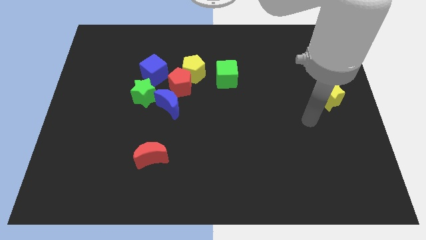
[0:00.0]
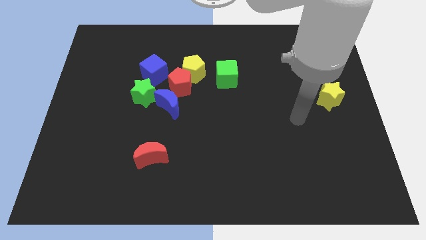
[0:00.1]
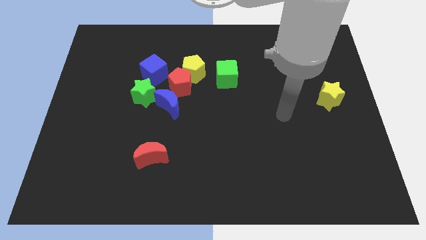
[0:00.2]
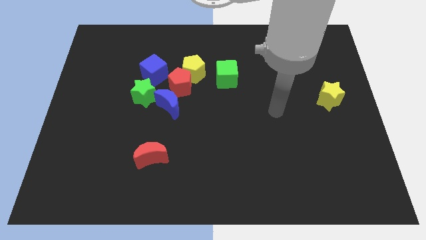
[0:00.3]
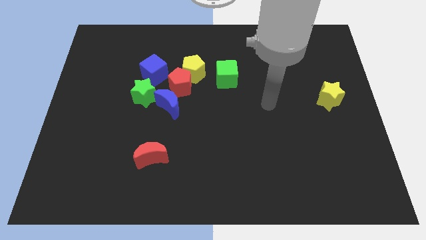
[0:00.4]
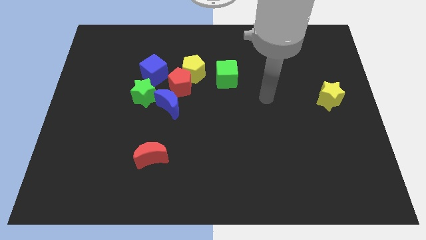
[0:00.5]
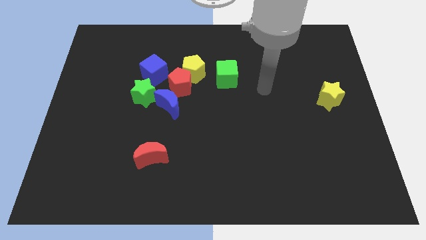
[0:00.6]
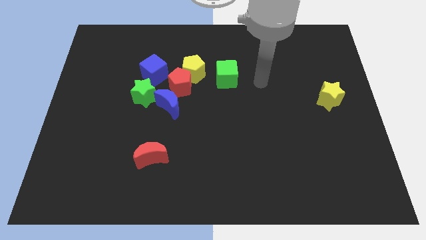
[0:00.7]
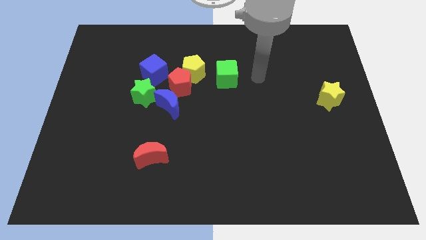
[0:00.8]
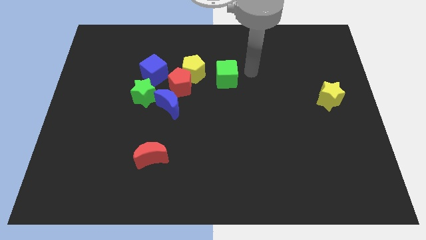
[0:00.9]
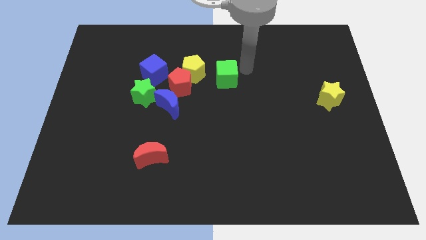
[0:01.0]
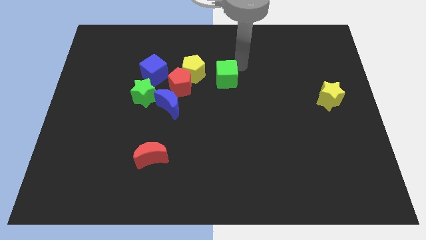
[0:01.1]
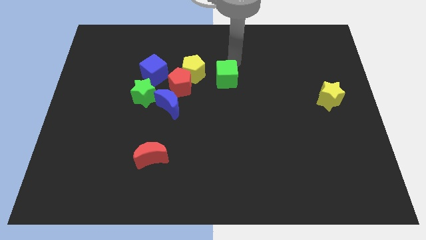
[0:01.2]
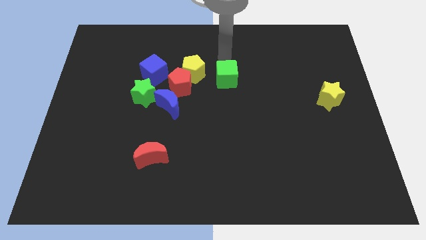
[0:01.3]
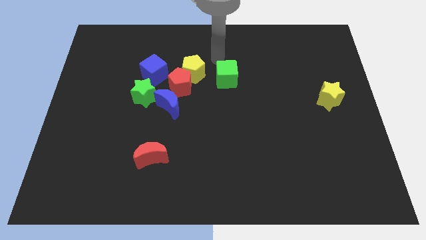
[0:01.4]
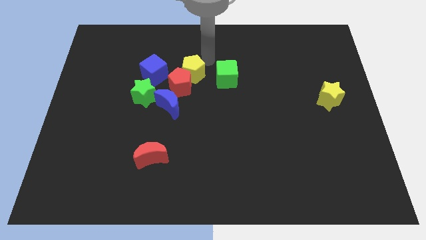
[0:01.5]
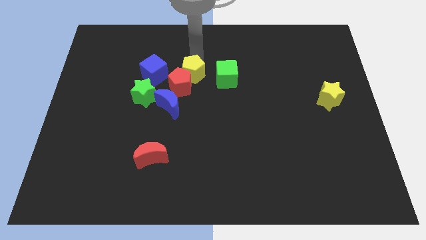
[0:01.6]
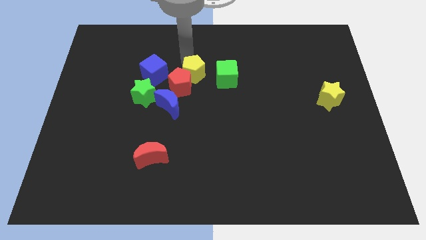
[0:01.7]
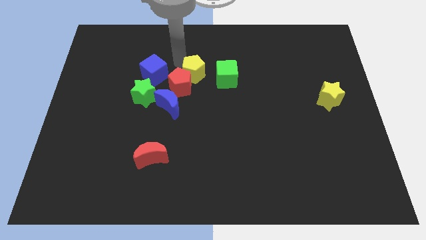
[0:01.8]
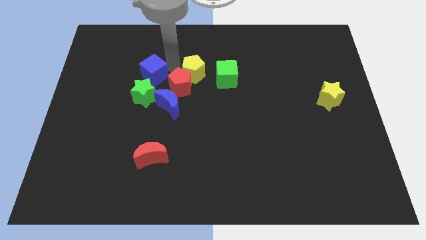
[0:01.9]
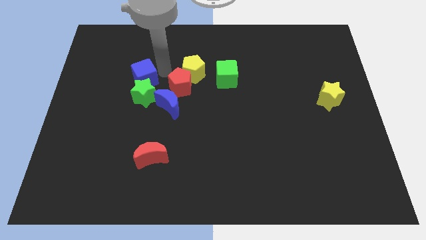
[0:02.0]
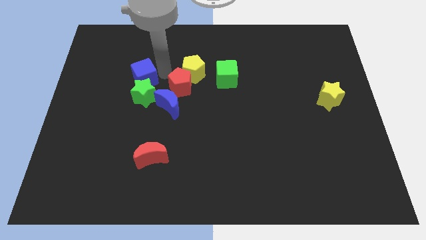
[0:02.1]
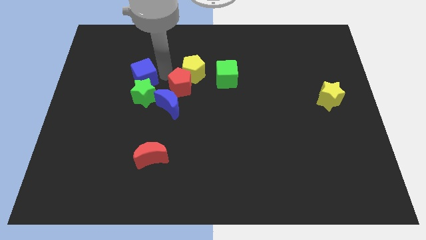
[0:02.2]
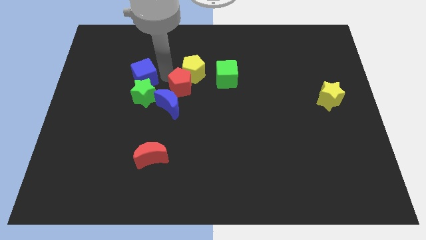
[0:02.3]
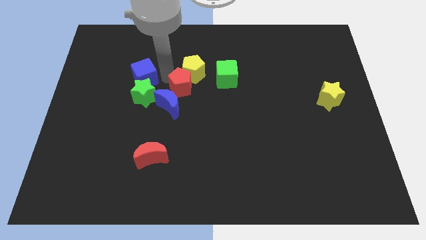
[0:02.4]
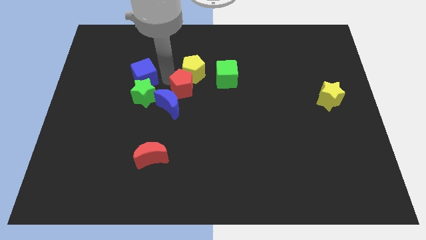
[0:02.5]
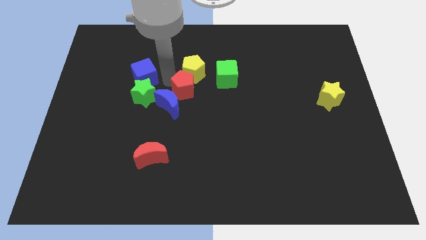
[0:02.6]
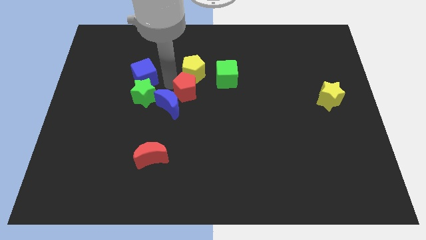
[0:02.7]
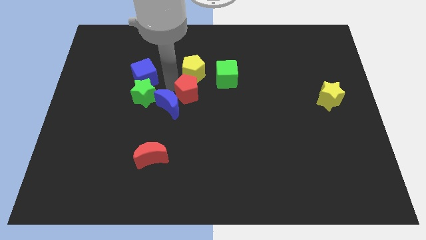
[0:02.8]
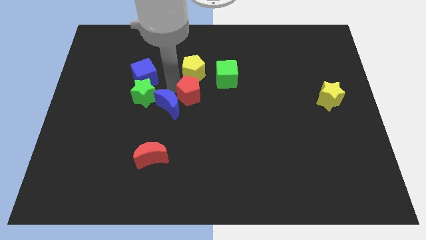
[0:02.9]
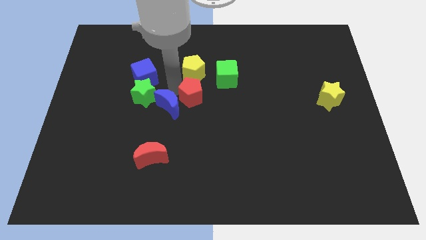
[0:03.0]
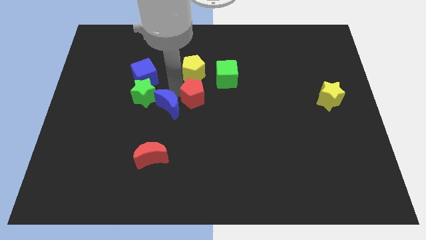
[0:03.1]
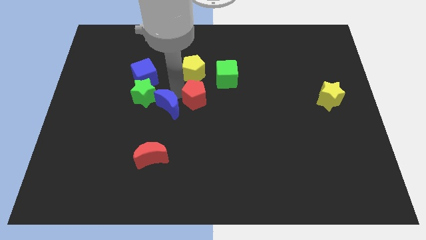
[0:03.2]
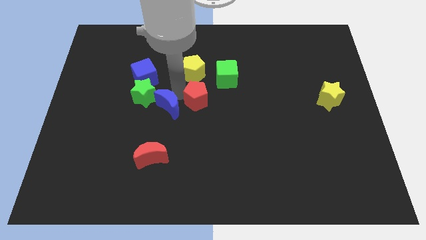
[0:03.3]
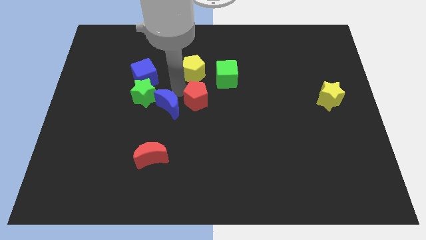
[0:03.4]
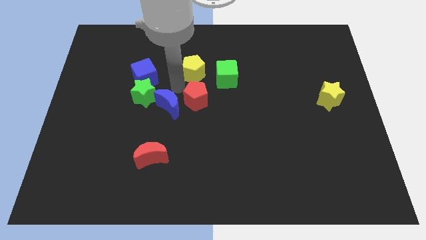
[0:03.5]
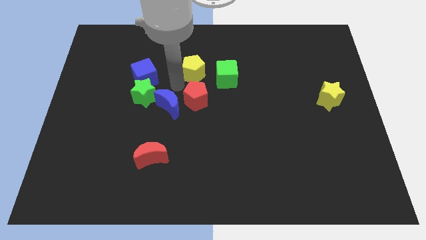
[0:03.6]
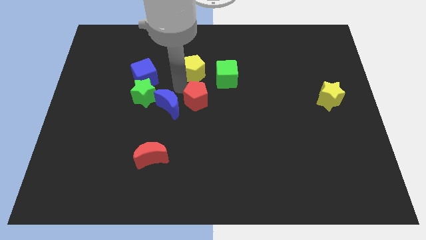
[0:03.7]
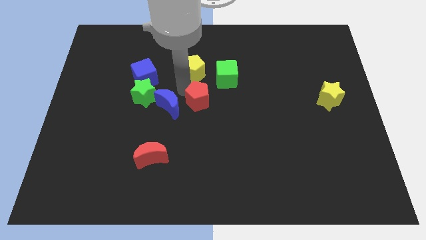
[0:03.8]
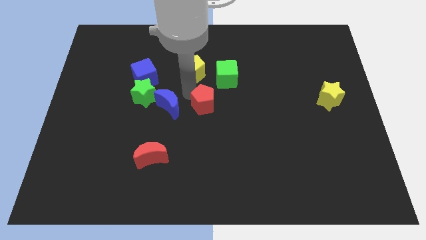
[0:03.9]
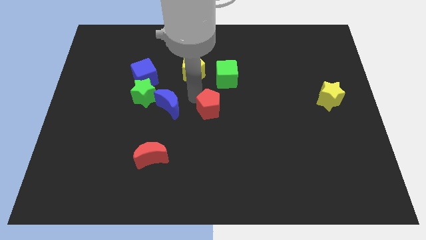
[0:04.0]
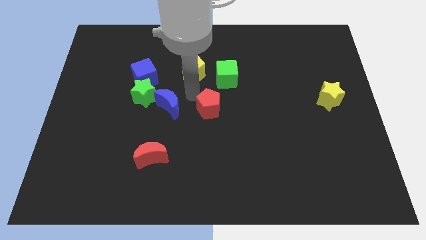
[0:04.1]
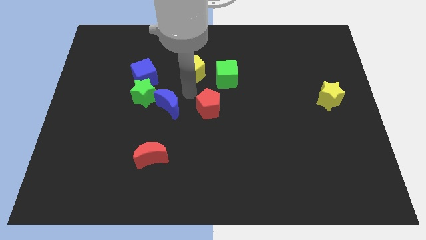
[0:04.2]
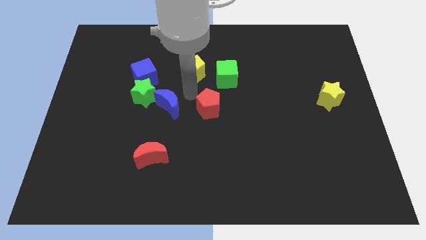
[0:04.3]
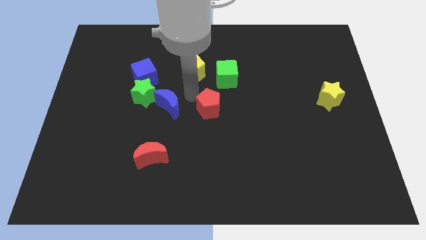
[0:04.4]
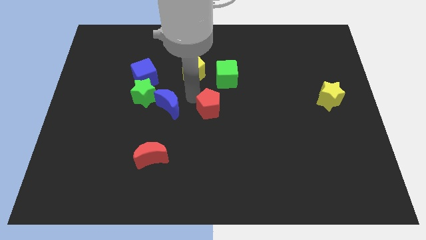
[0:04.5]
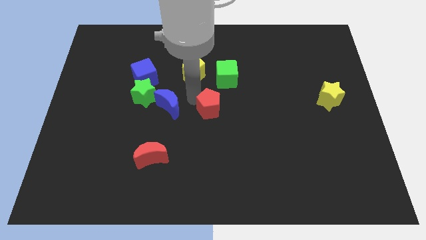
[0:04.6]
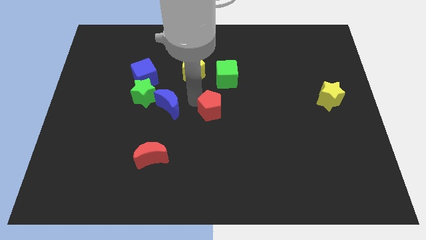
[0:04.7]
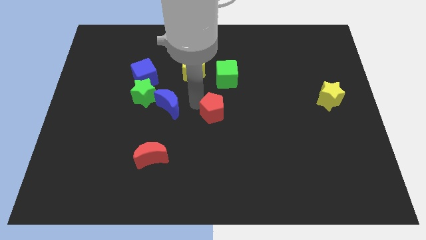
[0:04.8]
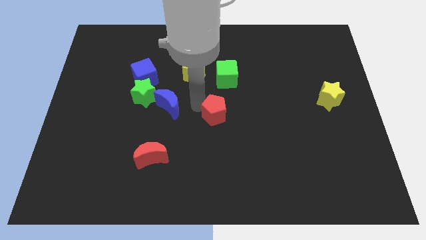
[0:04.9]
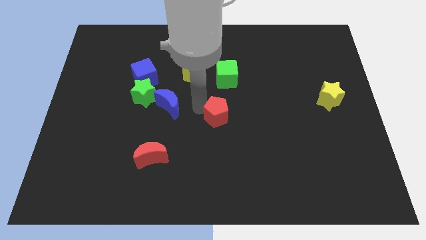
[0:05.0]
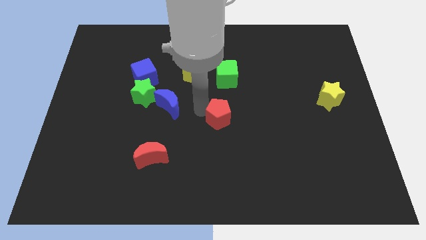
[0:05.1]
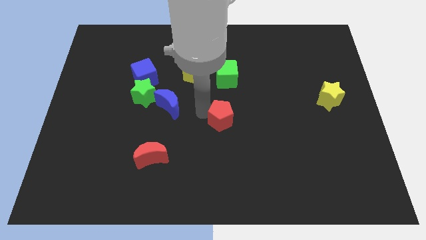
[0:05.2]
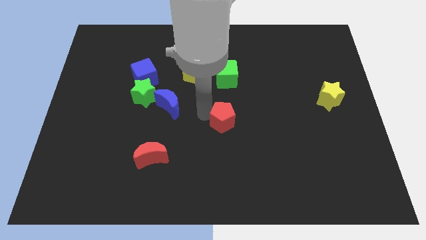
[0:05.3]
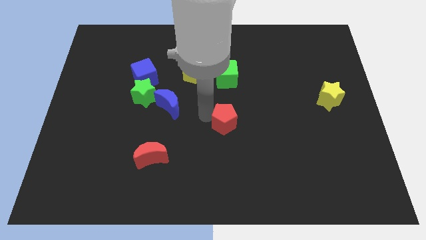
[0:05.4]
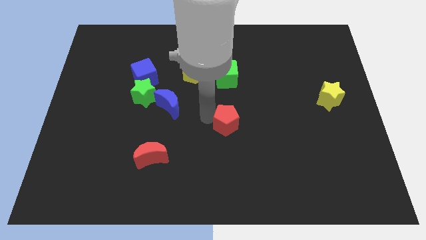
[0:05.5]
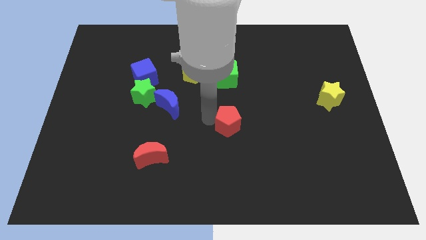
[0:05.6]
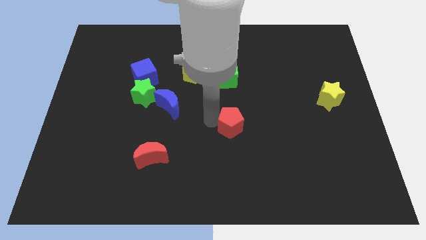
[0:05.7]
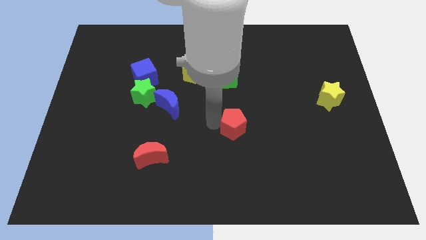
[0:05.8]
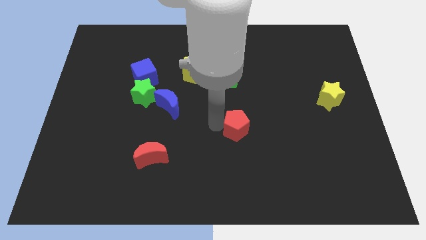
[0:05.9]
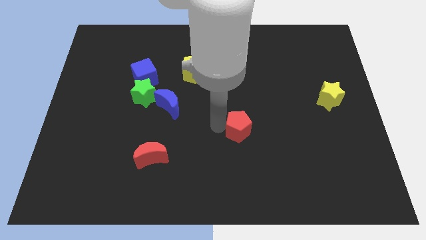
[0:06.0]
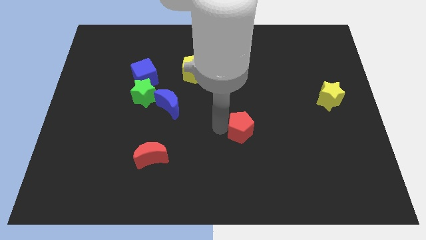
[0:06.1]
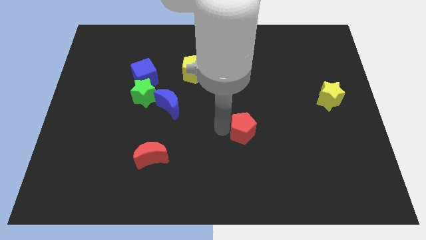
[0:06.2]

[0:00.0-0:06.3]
move the red pentagon downwards and then right

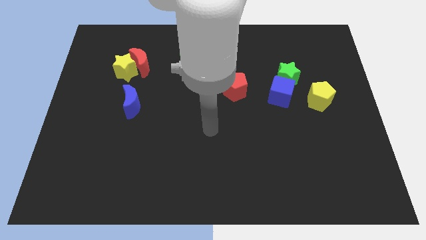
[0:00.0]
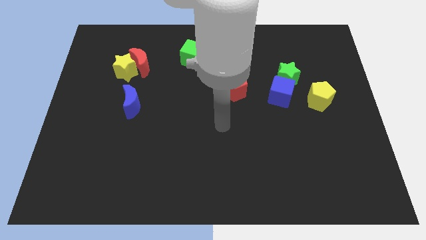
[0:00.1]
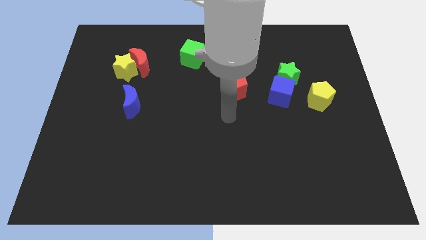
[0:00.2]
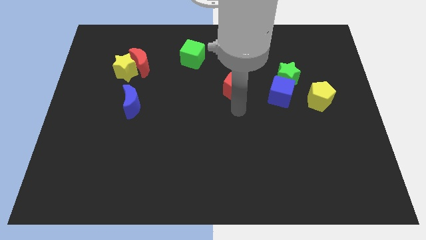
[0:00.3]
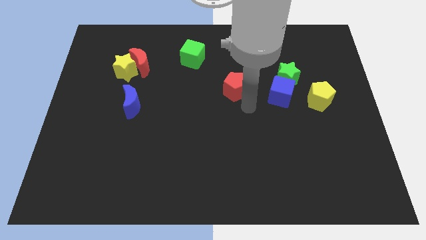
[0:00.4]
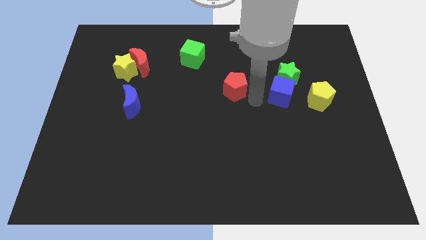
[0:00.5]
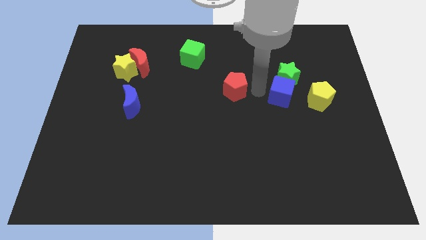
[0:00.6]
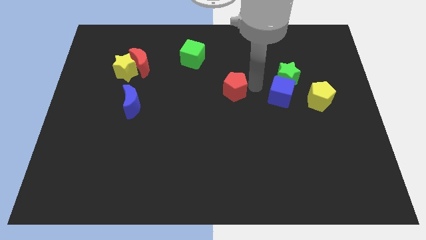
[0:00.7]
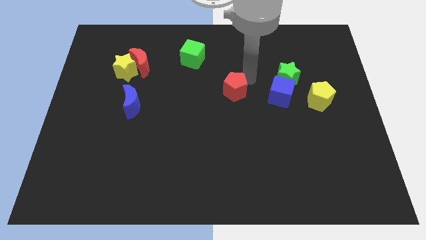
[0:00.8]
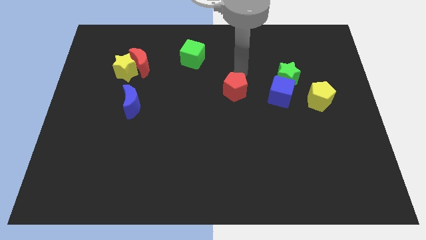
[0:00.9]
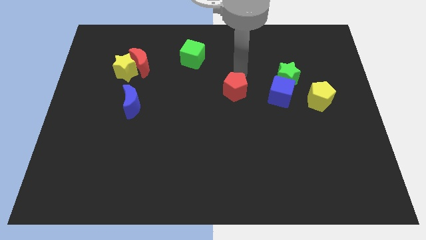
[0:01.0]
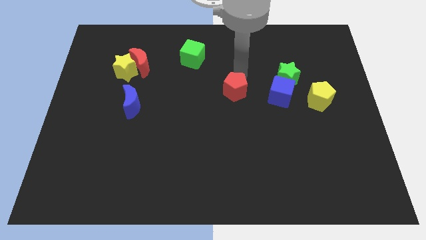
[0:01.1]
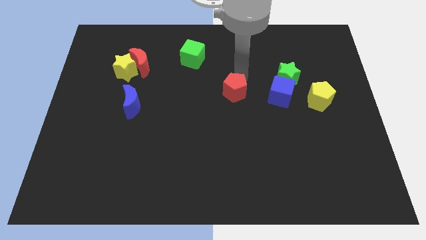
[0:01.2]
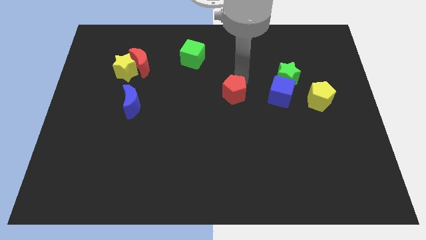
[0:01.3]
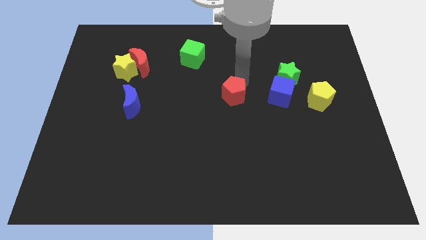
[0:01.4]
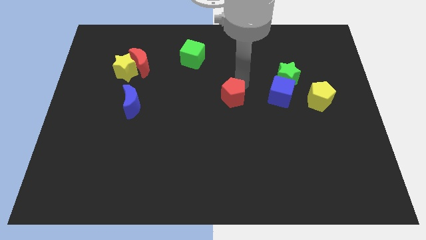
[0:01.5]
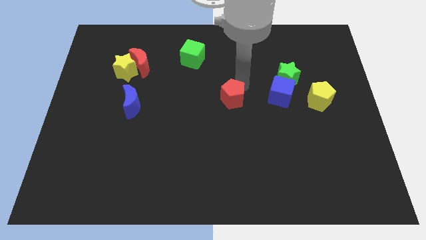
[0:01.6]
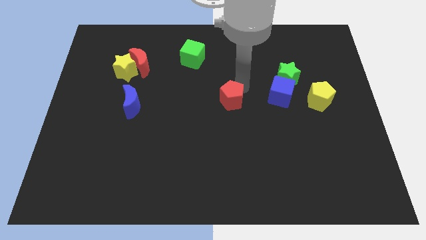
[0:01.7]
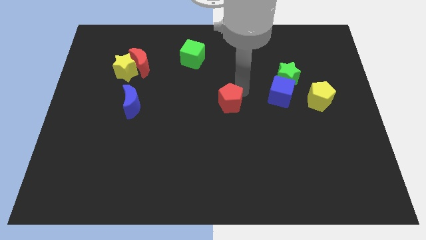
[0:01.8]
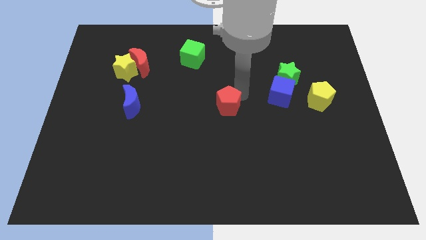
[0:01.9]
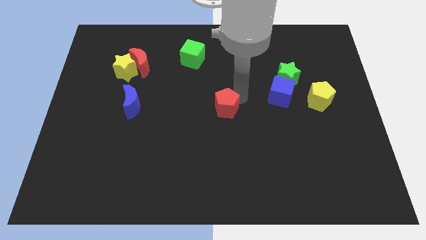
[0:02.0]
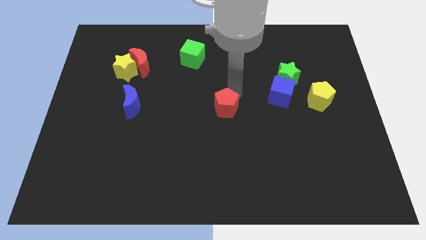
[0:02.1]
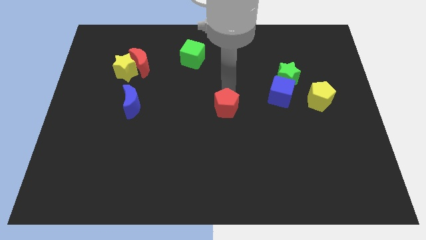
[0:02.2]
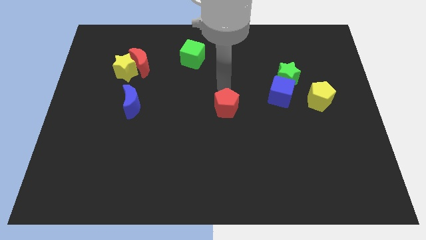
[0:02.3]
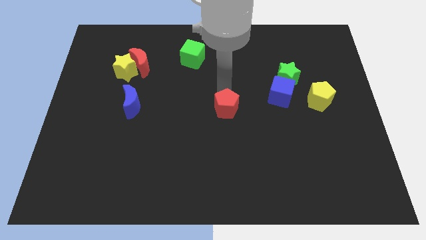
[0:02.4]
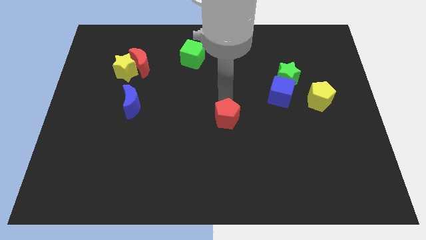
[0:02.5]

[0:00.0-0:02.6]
slide the red pentagon downwards a bit
